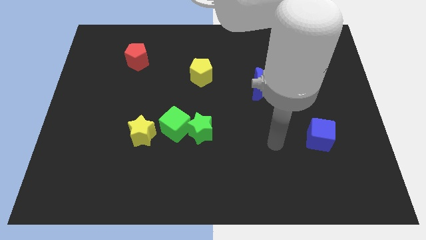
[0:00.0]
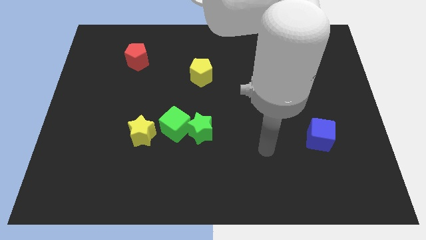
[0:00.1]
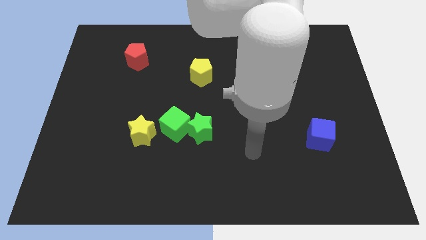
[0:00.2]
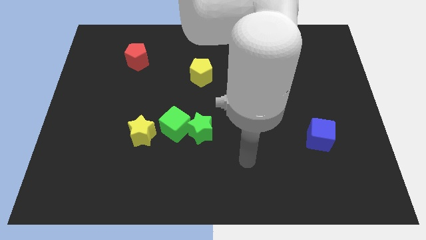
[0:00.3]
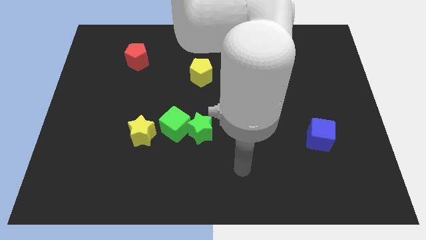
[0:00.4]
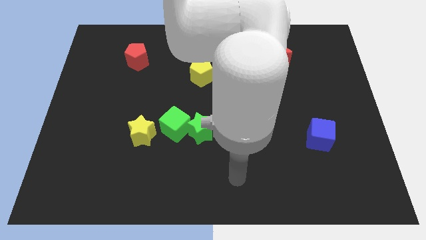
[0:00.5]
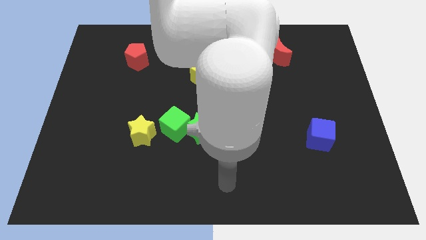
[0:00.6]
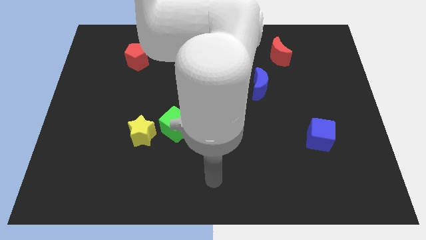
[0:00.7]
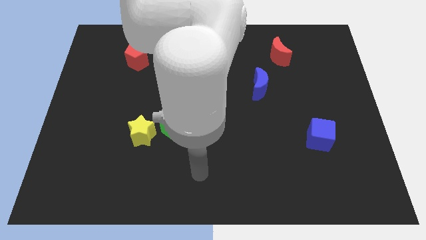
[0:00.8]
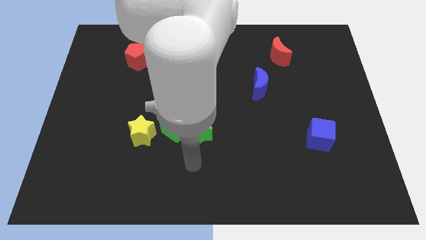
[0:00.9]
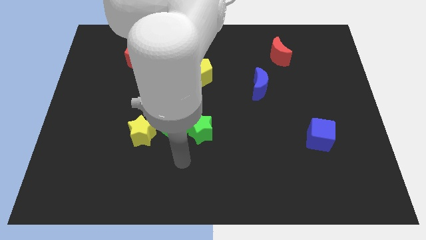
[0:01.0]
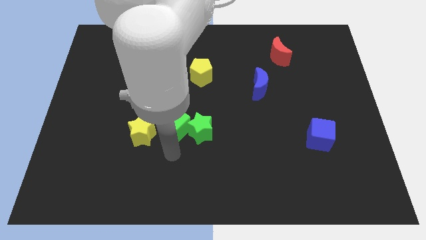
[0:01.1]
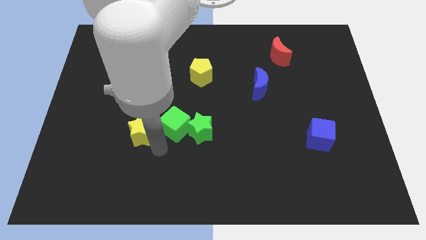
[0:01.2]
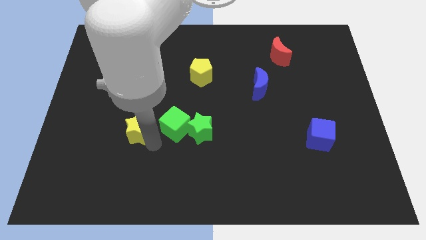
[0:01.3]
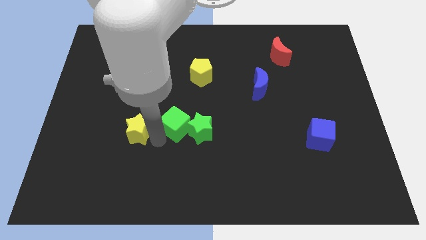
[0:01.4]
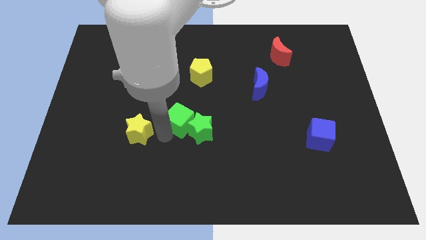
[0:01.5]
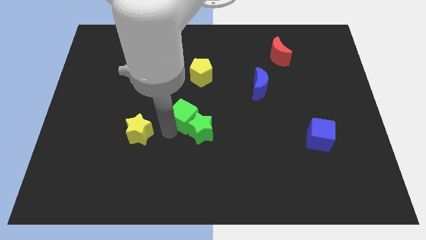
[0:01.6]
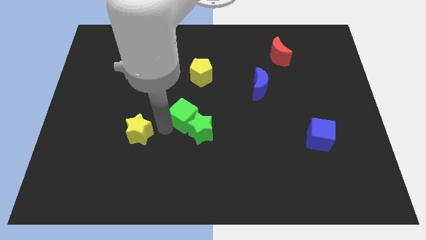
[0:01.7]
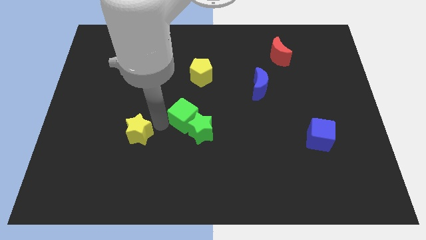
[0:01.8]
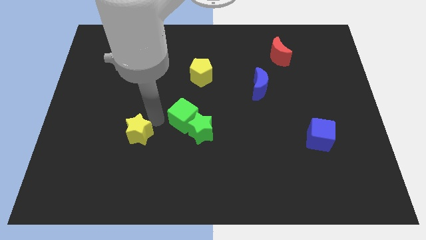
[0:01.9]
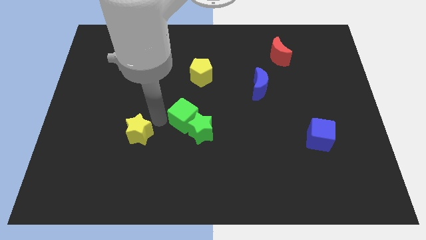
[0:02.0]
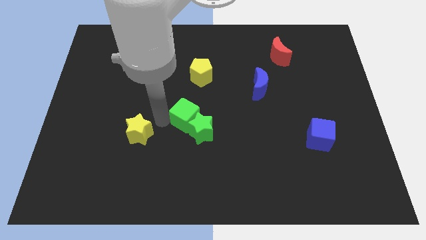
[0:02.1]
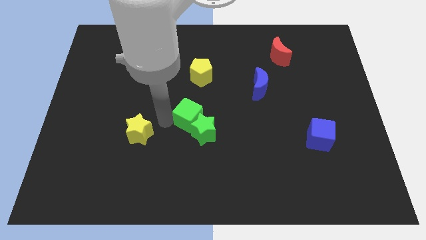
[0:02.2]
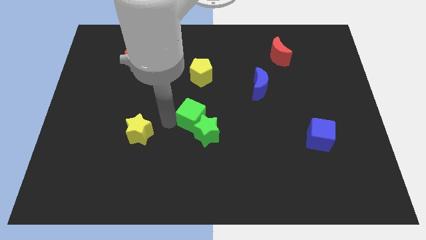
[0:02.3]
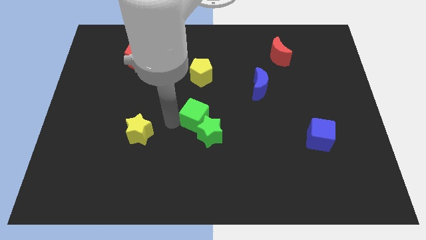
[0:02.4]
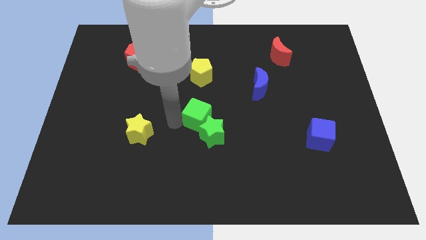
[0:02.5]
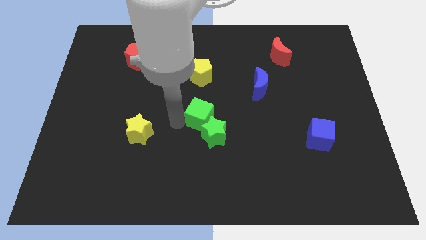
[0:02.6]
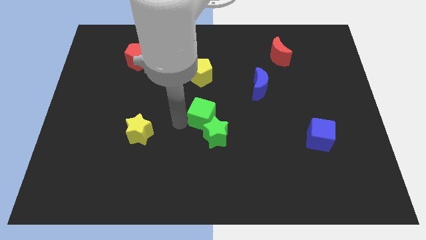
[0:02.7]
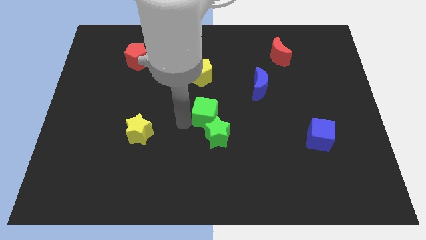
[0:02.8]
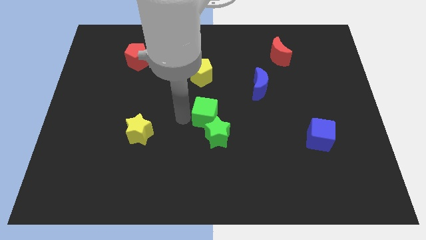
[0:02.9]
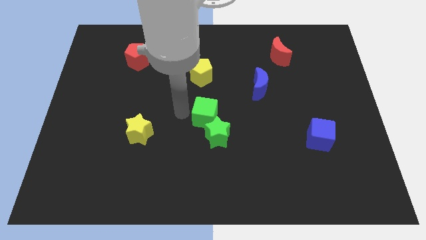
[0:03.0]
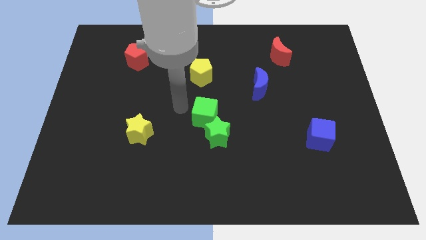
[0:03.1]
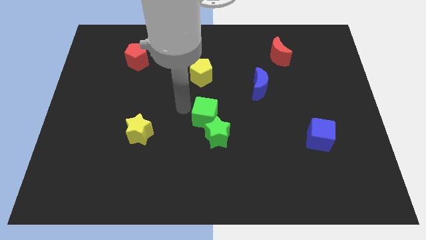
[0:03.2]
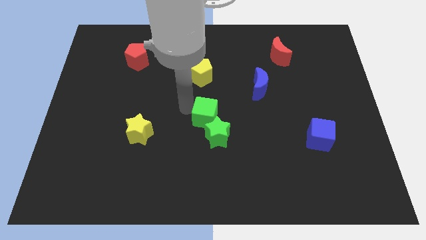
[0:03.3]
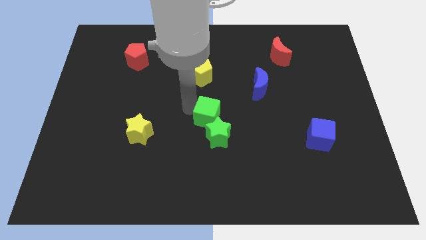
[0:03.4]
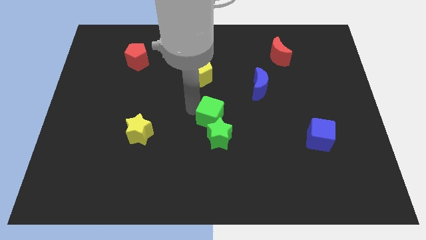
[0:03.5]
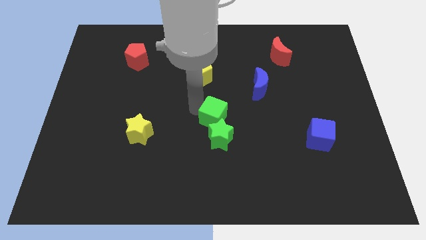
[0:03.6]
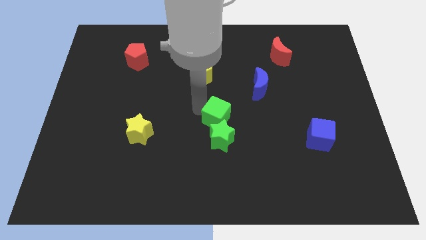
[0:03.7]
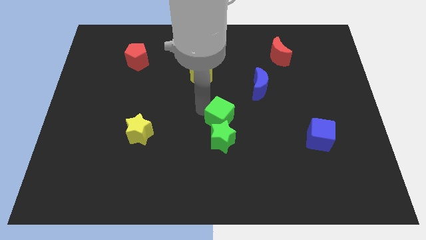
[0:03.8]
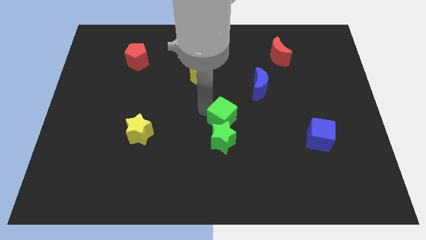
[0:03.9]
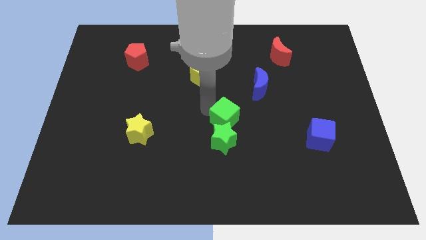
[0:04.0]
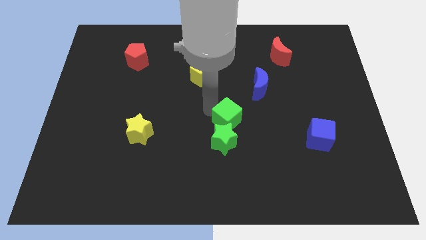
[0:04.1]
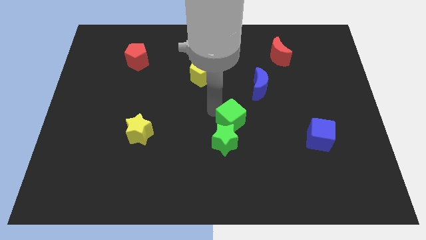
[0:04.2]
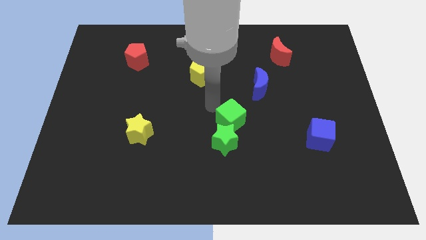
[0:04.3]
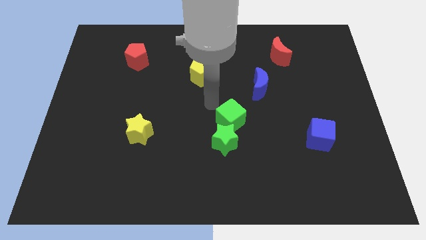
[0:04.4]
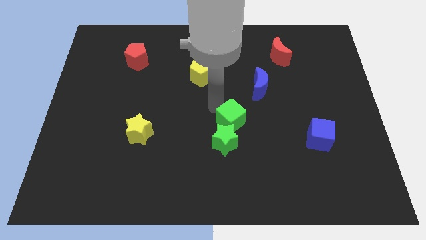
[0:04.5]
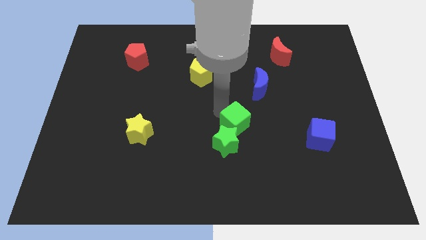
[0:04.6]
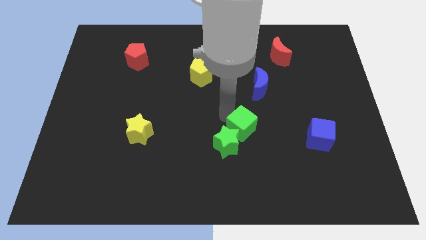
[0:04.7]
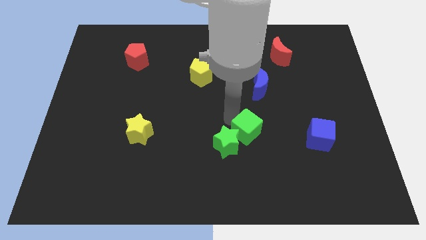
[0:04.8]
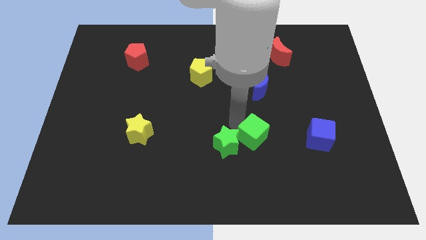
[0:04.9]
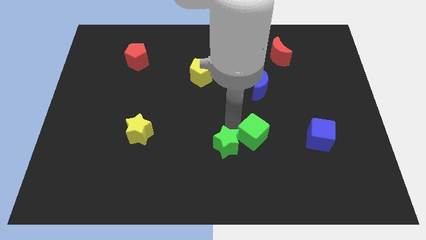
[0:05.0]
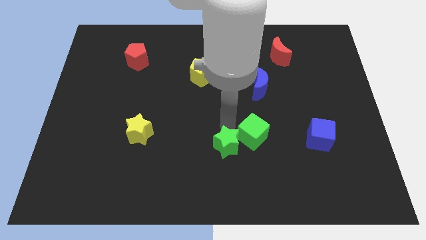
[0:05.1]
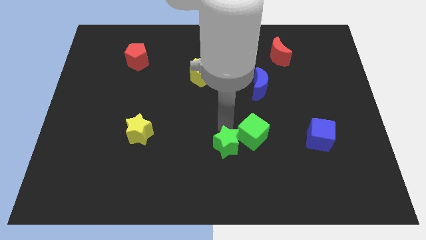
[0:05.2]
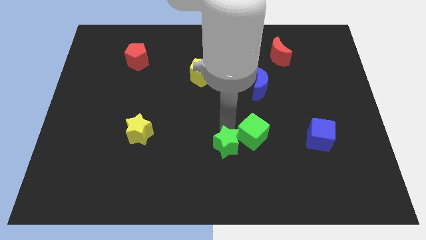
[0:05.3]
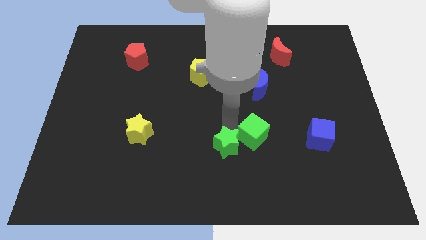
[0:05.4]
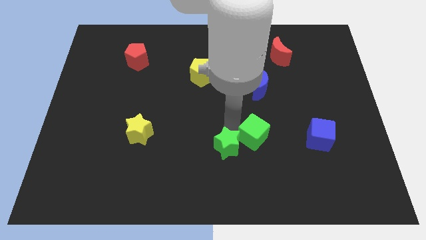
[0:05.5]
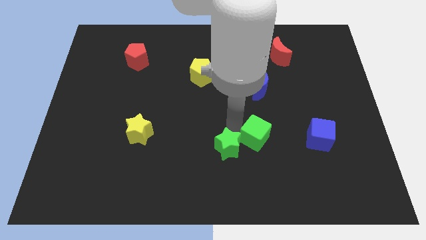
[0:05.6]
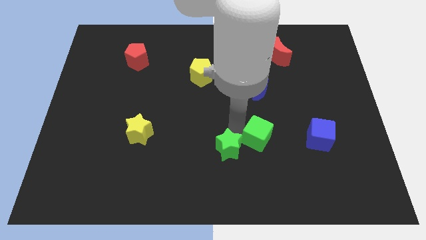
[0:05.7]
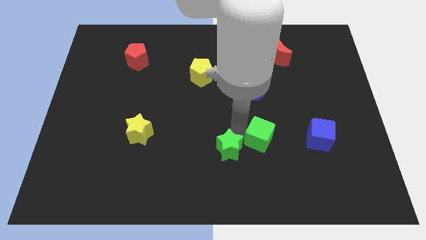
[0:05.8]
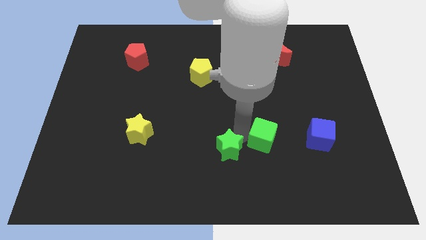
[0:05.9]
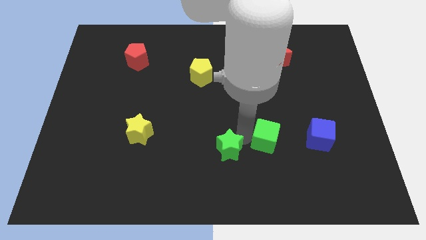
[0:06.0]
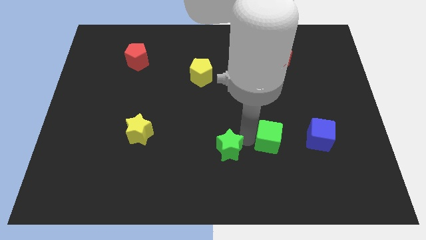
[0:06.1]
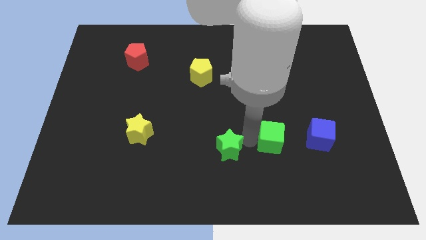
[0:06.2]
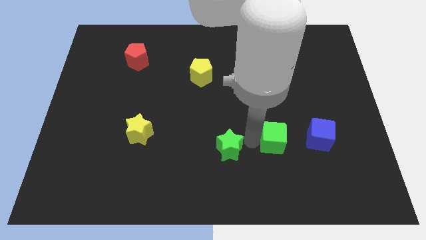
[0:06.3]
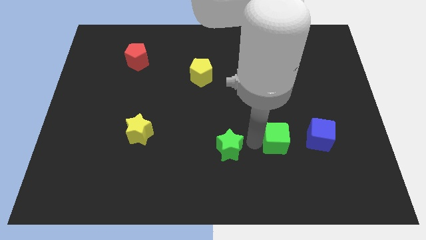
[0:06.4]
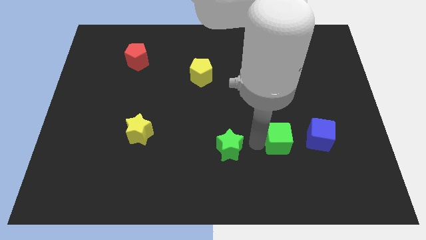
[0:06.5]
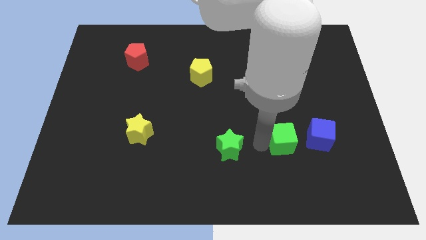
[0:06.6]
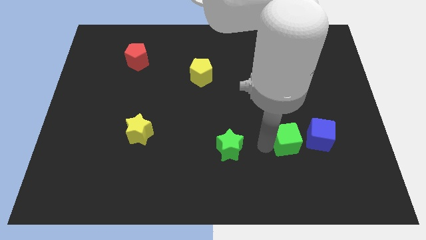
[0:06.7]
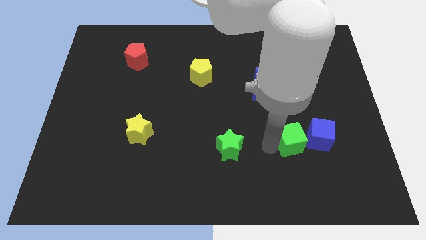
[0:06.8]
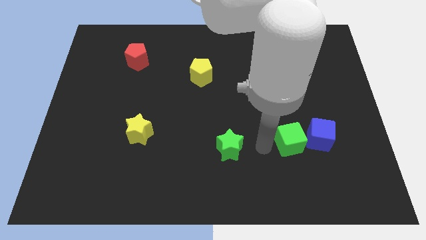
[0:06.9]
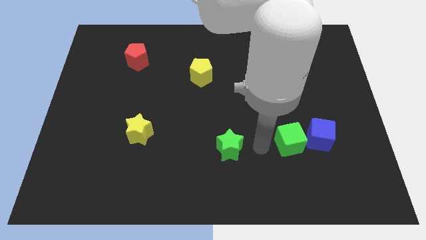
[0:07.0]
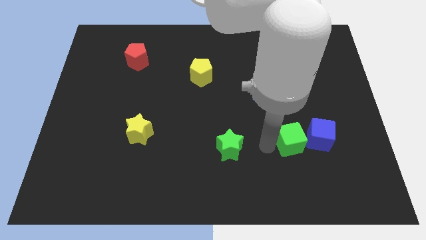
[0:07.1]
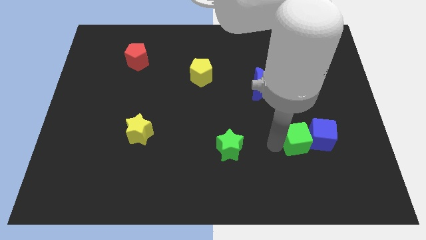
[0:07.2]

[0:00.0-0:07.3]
move the green cube close to the blue cube
